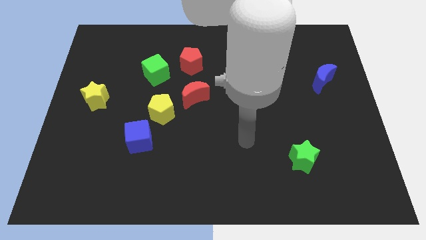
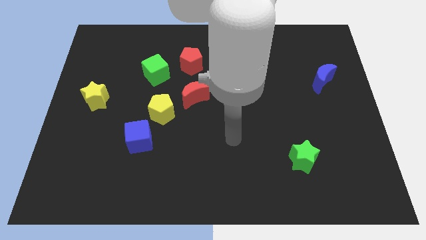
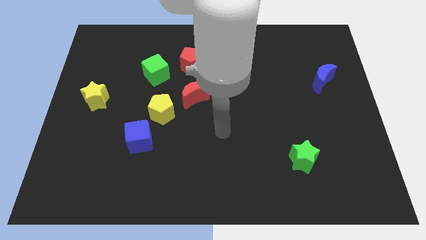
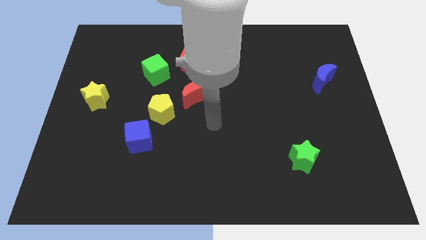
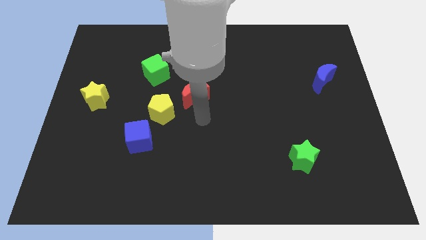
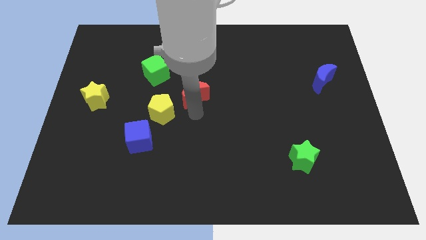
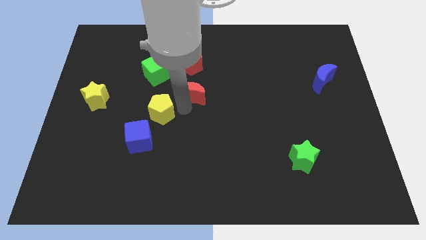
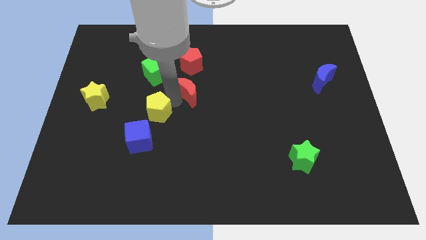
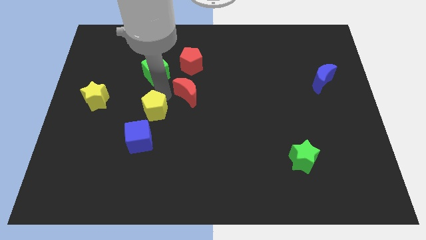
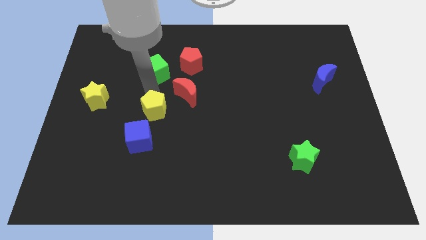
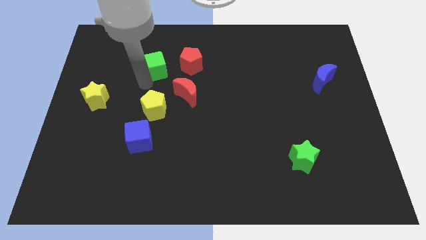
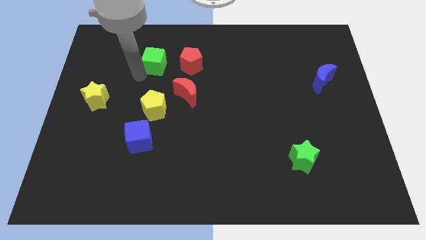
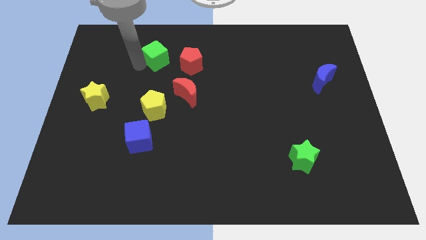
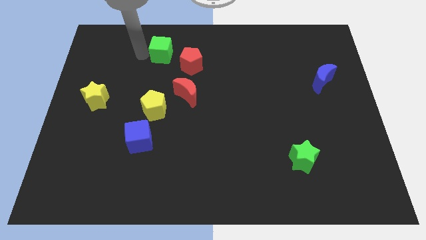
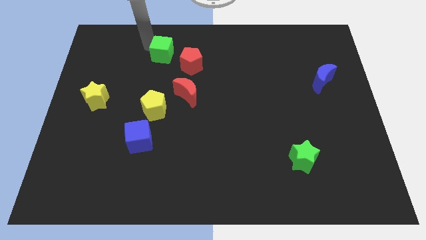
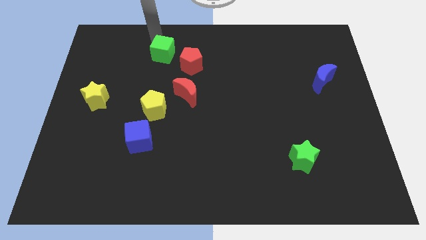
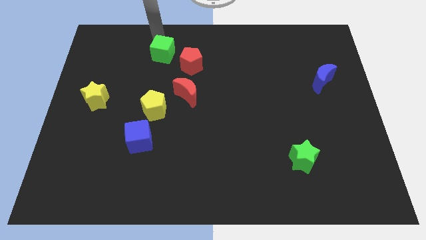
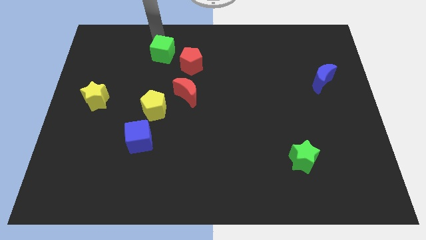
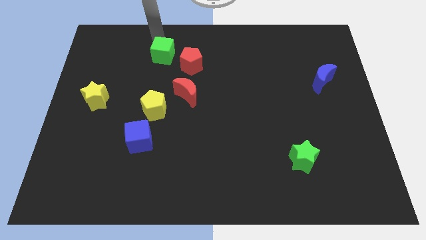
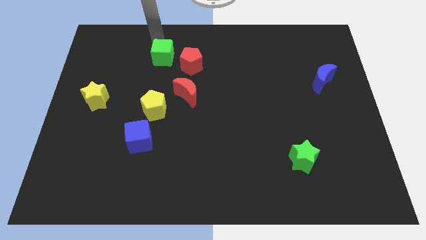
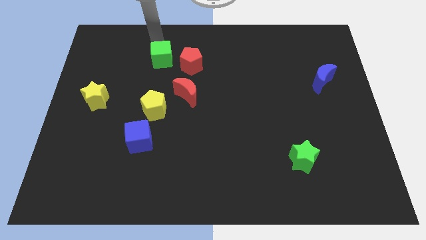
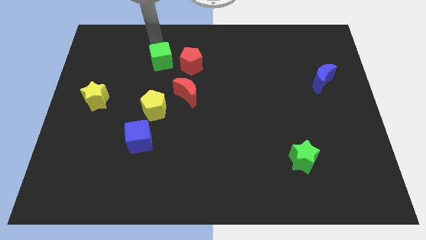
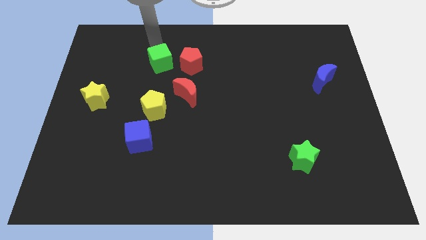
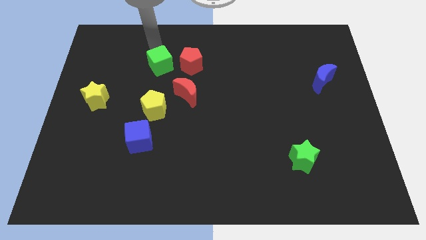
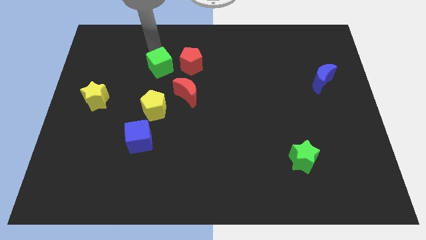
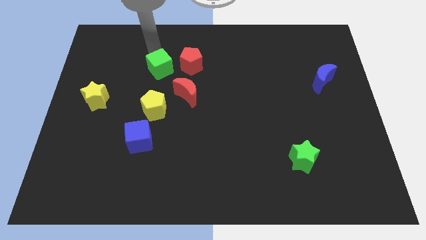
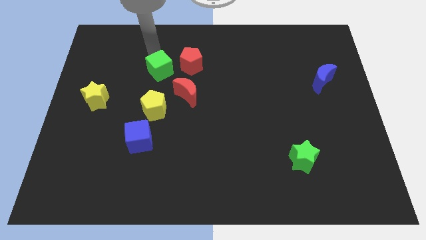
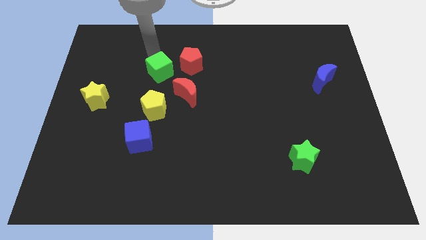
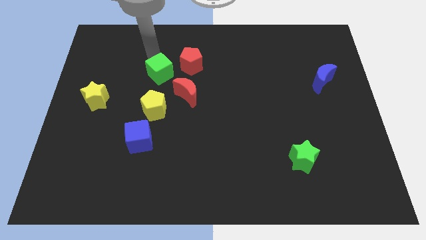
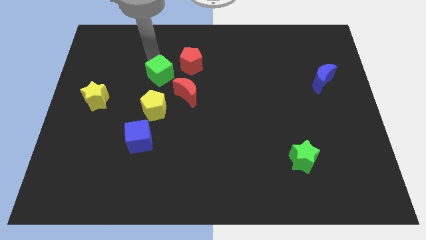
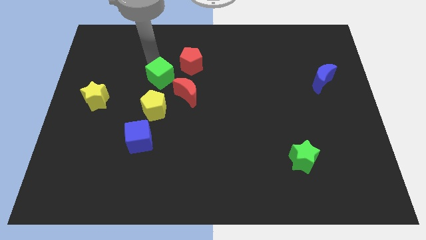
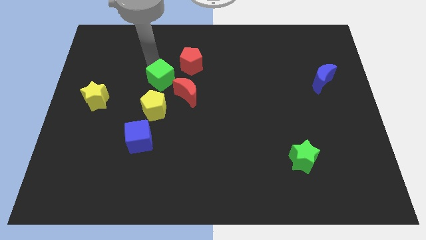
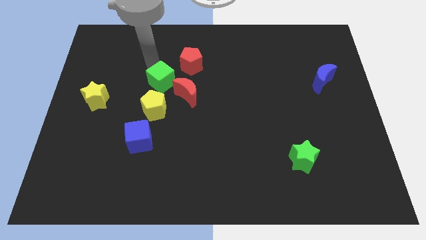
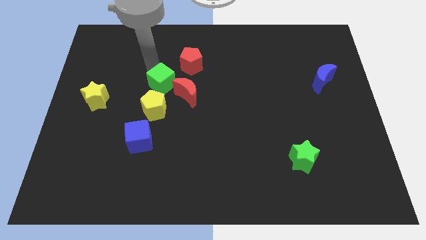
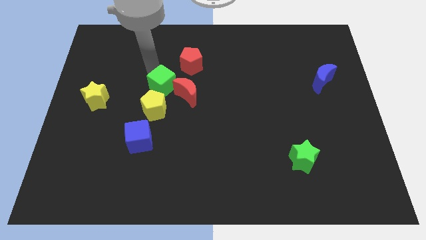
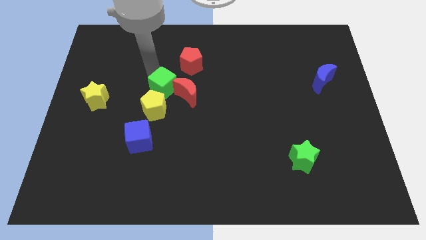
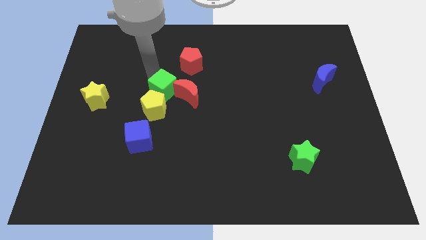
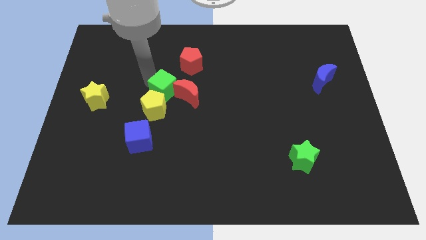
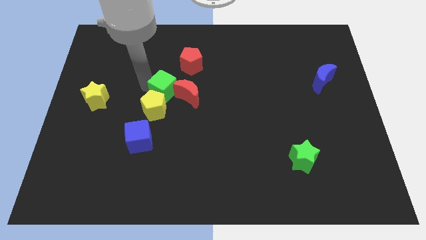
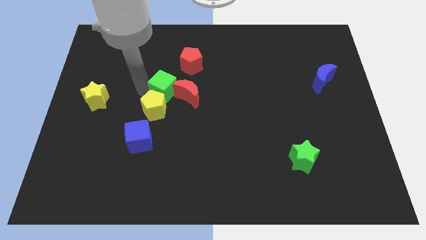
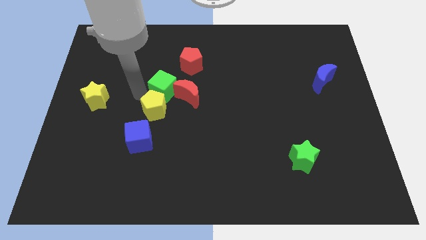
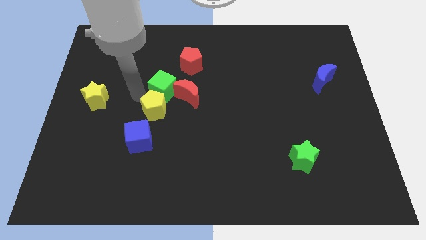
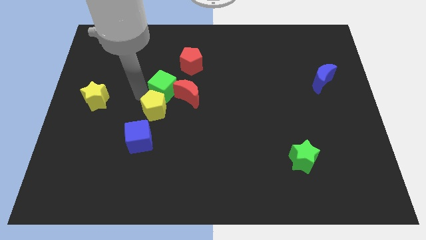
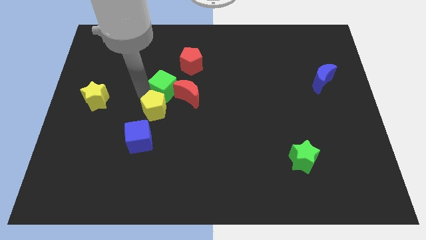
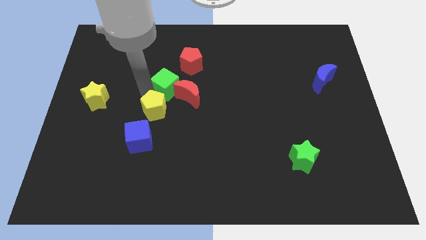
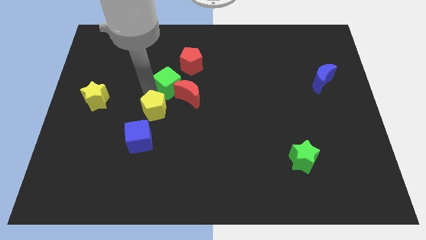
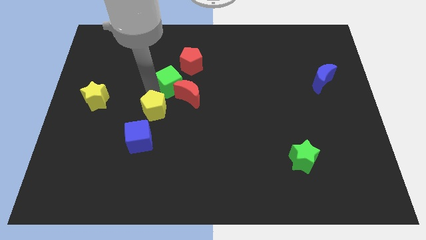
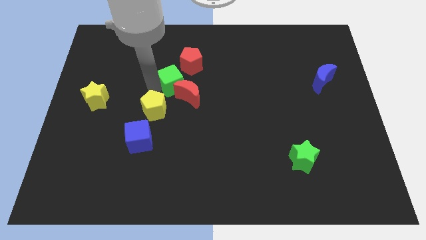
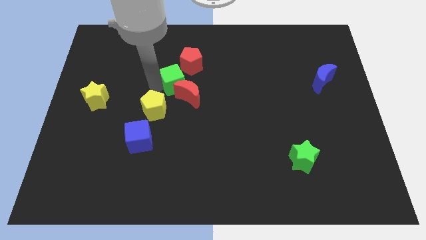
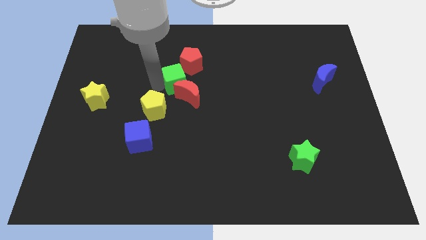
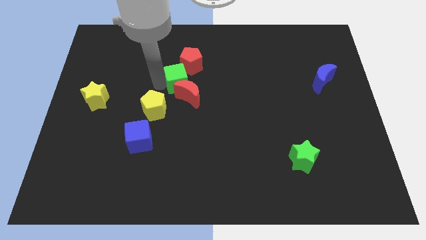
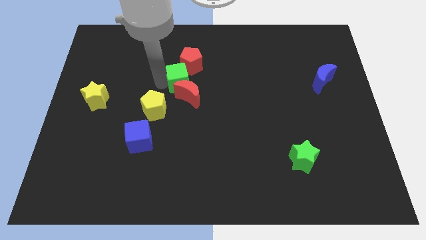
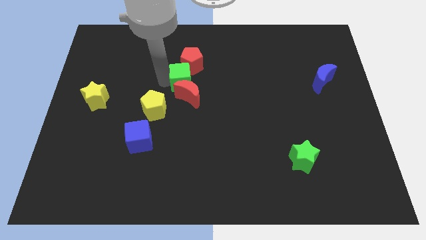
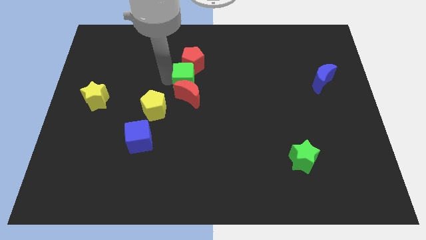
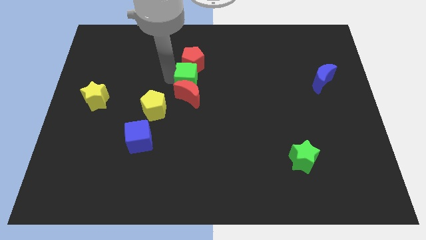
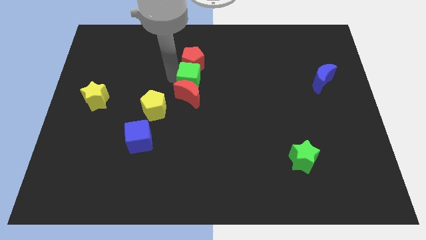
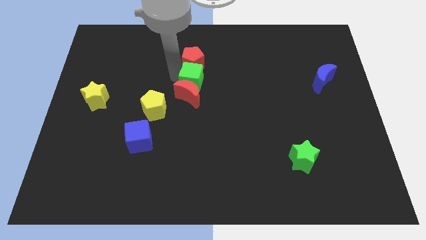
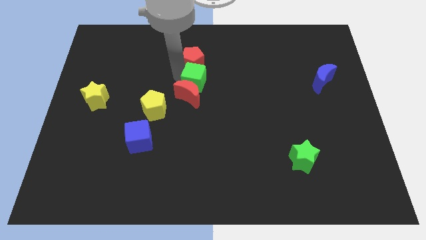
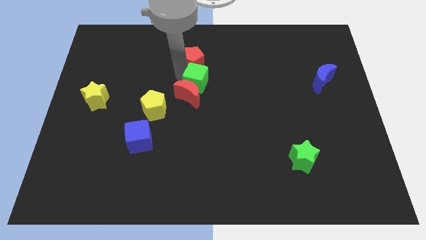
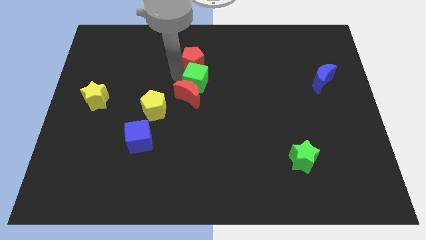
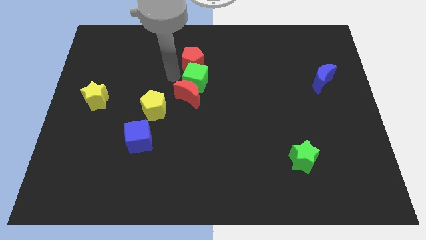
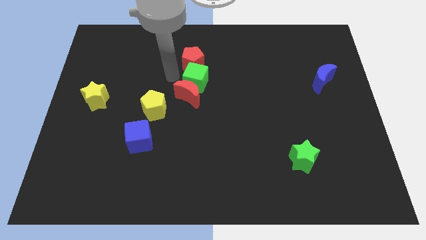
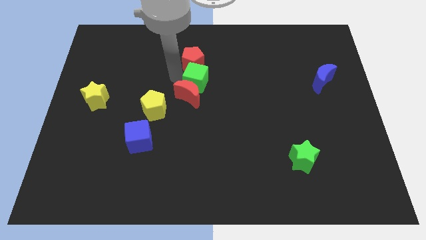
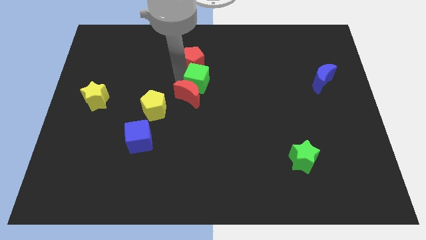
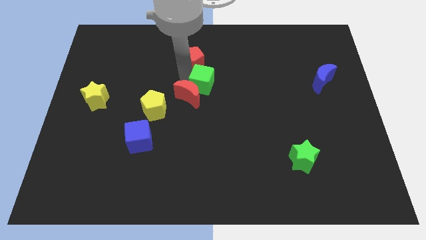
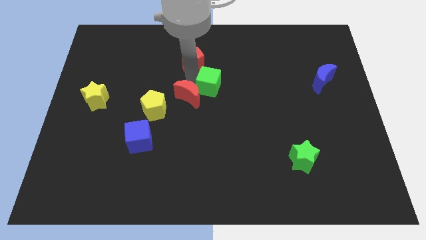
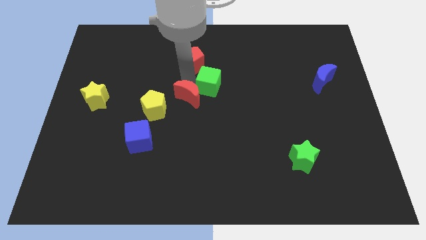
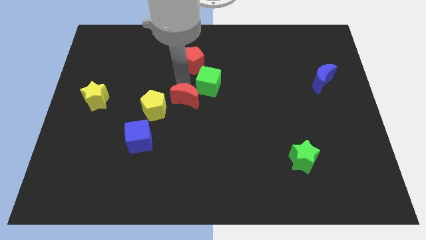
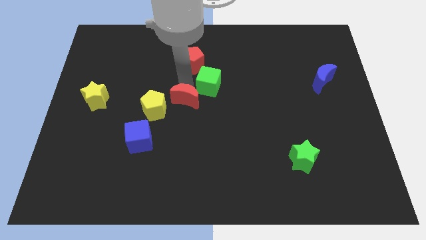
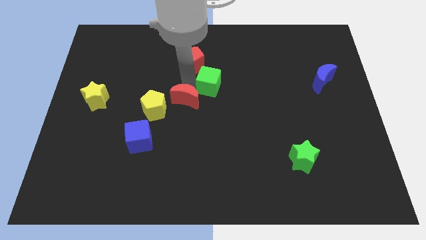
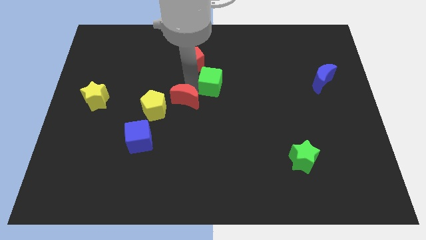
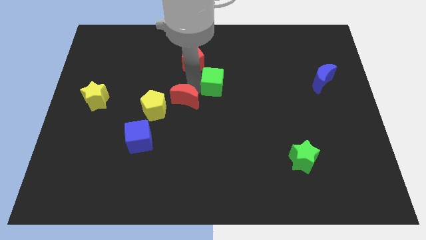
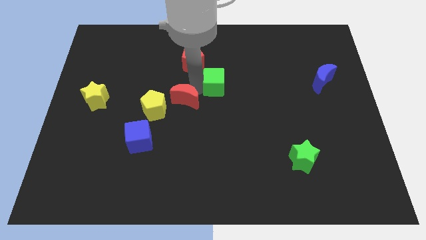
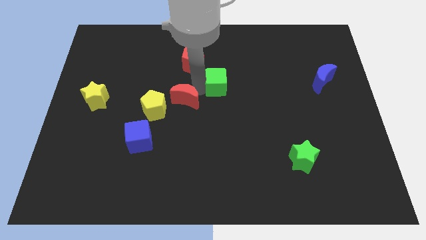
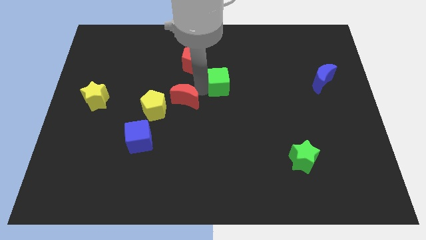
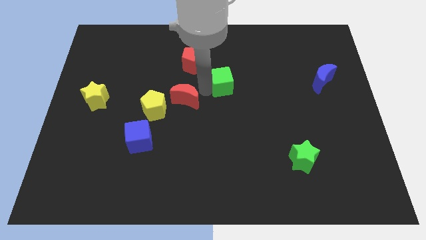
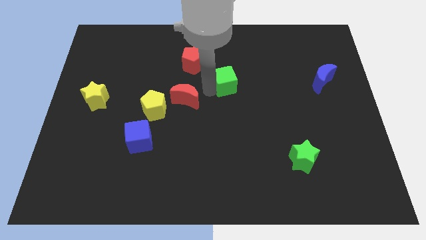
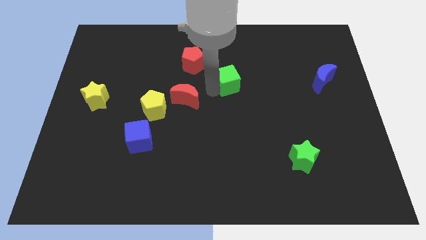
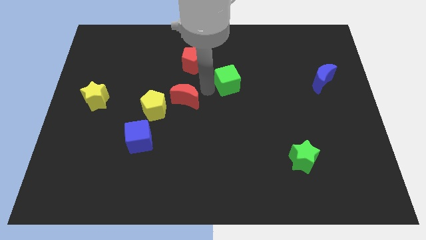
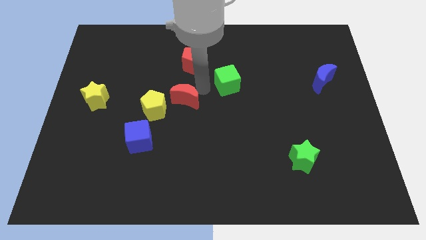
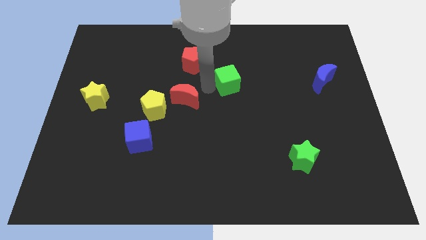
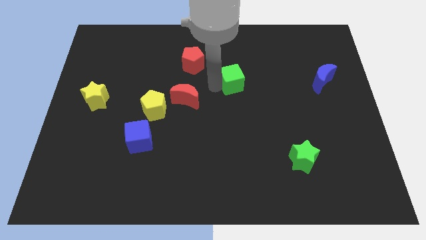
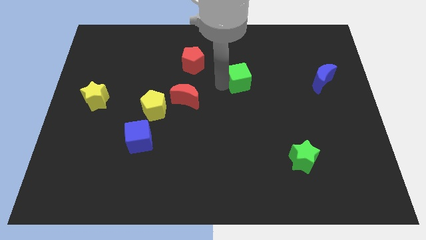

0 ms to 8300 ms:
push the green cube right
